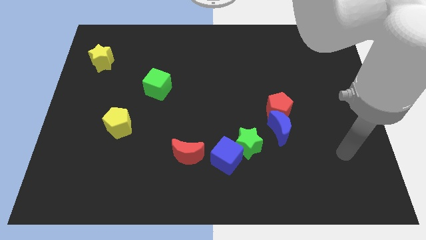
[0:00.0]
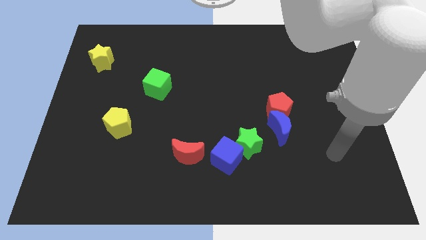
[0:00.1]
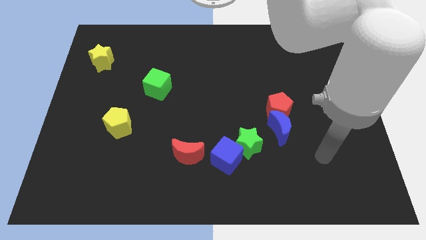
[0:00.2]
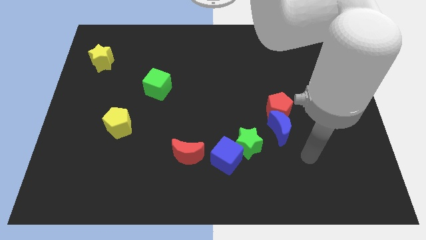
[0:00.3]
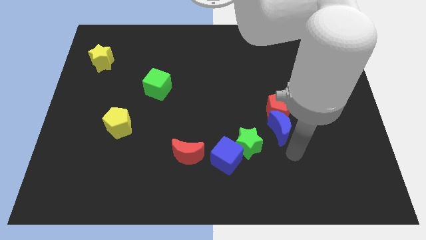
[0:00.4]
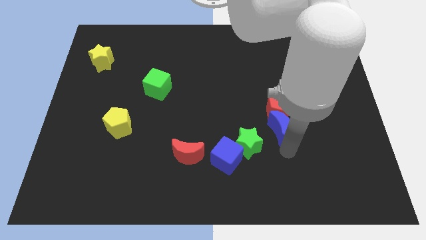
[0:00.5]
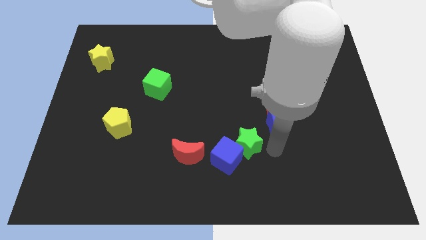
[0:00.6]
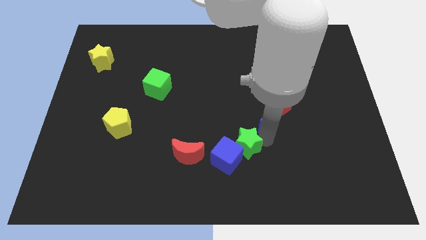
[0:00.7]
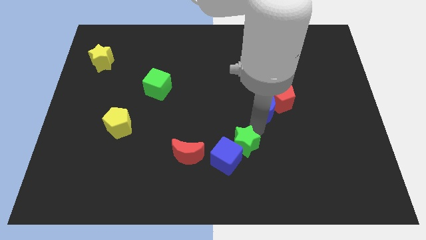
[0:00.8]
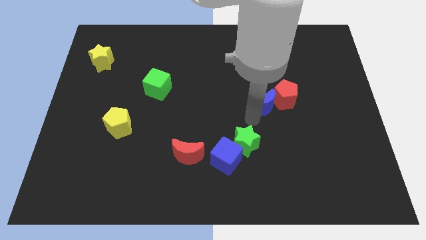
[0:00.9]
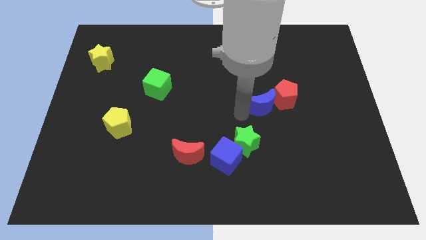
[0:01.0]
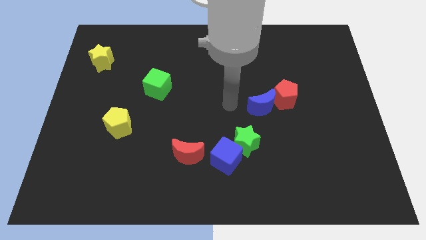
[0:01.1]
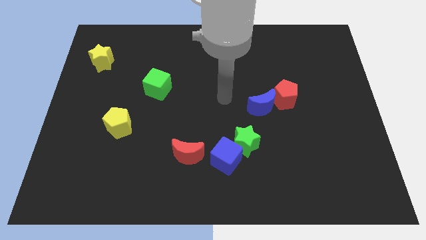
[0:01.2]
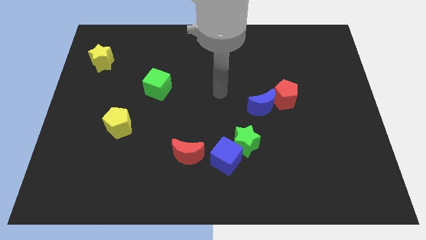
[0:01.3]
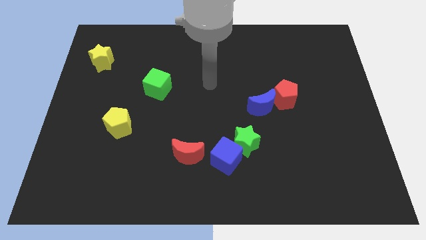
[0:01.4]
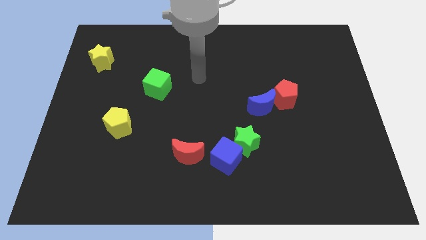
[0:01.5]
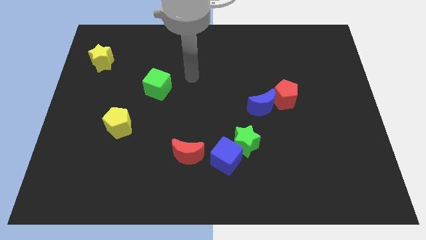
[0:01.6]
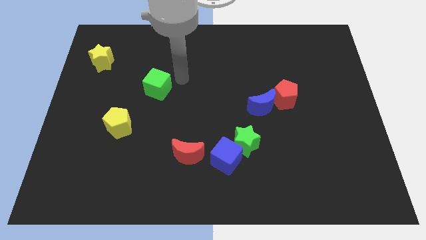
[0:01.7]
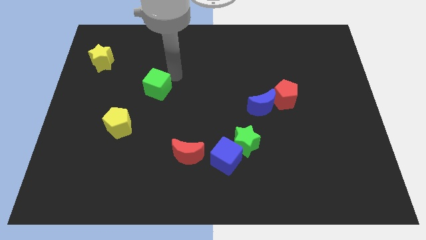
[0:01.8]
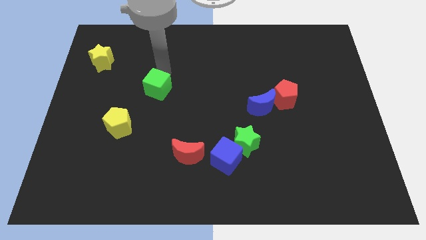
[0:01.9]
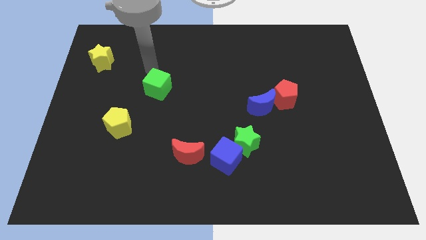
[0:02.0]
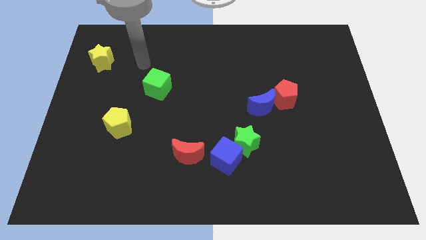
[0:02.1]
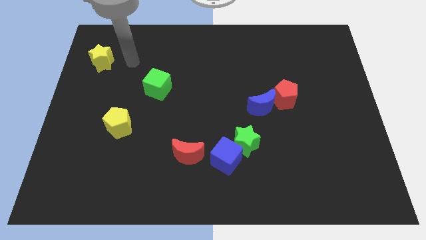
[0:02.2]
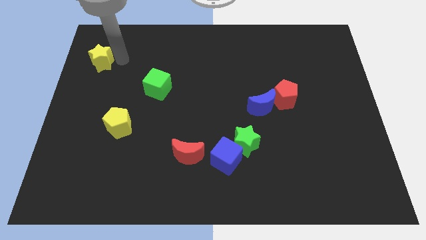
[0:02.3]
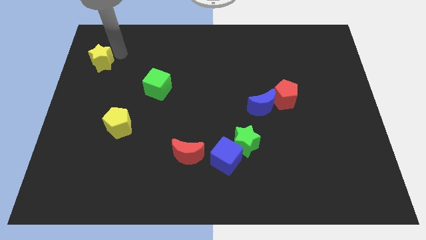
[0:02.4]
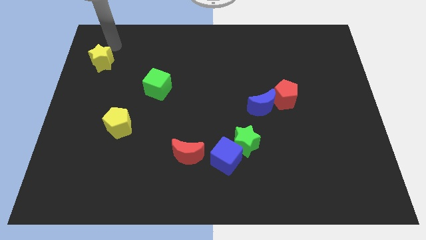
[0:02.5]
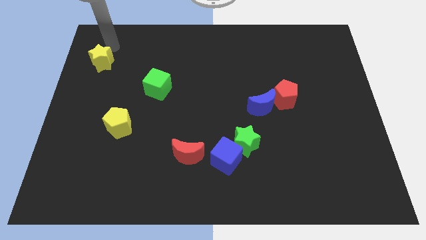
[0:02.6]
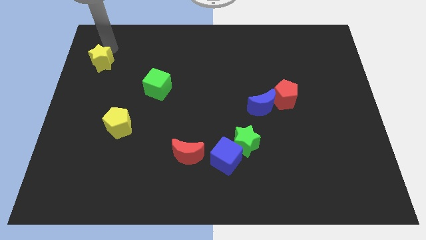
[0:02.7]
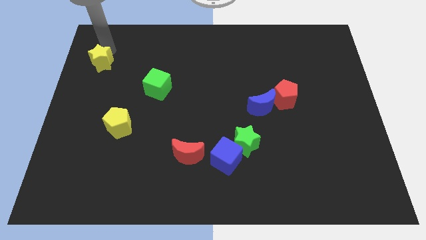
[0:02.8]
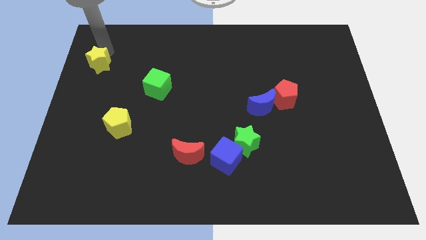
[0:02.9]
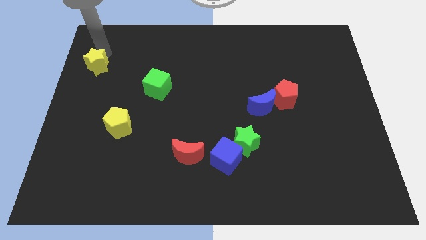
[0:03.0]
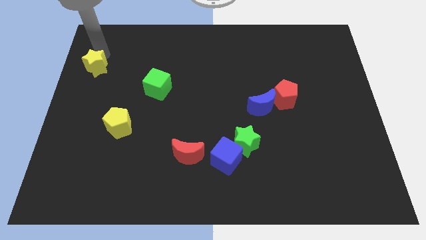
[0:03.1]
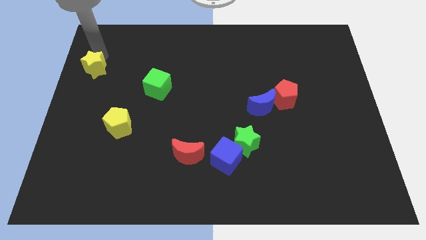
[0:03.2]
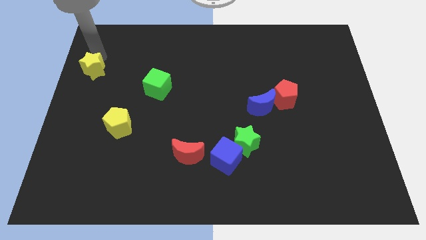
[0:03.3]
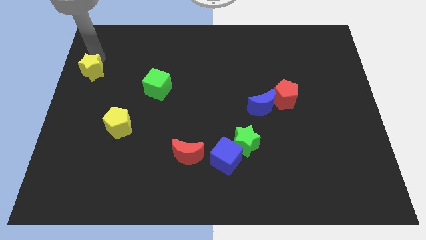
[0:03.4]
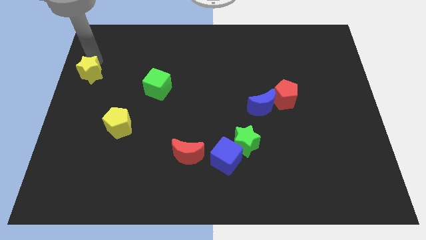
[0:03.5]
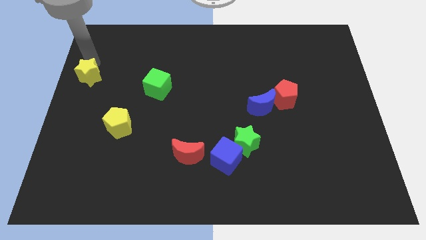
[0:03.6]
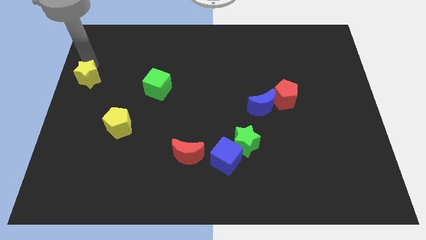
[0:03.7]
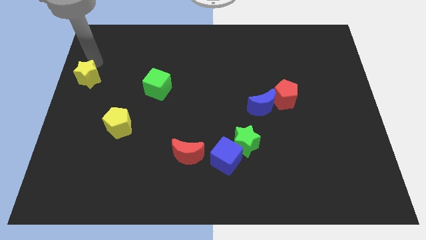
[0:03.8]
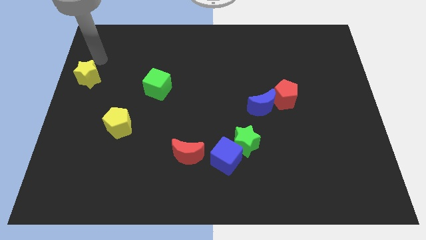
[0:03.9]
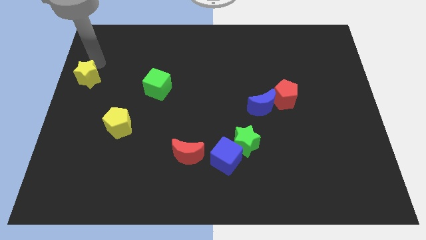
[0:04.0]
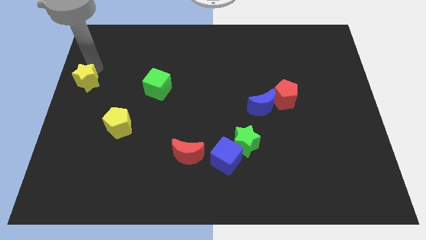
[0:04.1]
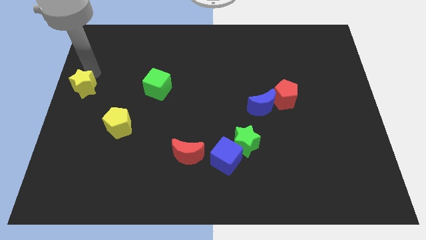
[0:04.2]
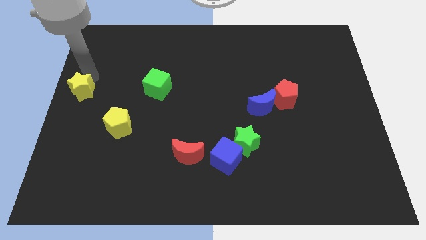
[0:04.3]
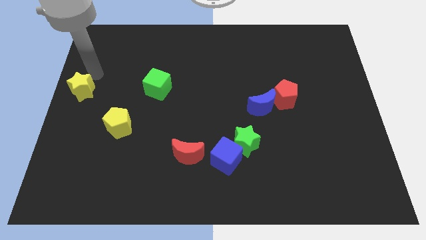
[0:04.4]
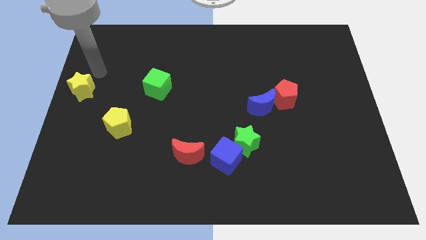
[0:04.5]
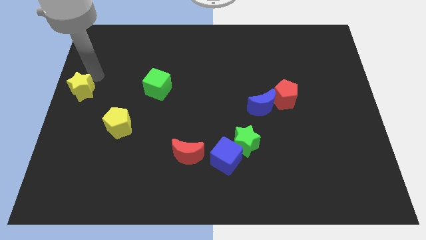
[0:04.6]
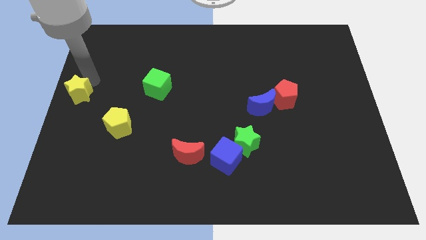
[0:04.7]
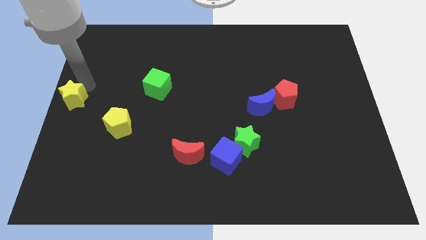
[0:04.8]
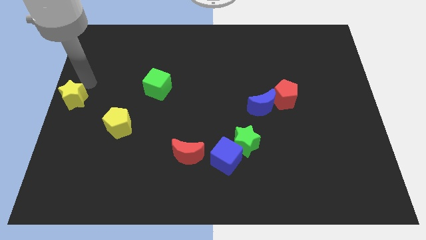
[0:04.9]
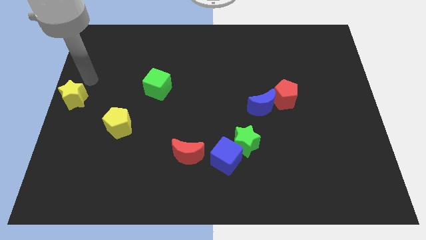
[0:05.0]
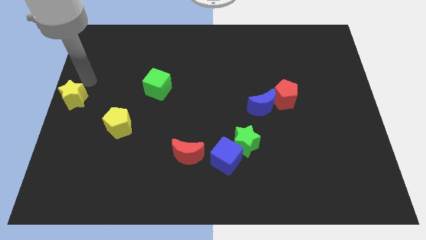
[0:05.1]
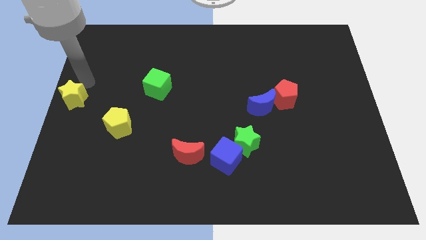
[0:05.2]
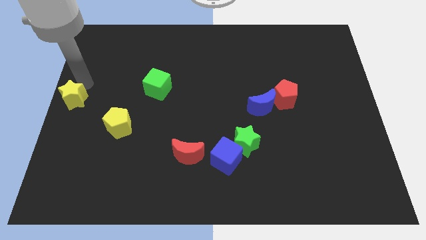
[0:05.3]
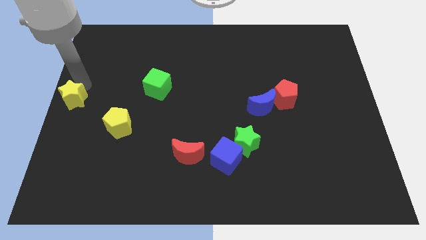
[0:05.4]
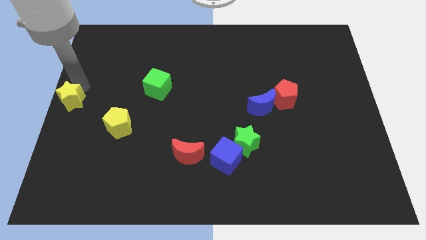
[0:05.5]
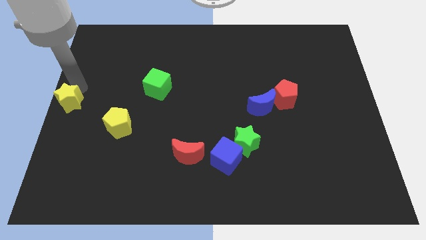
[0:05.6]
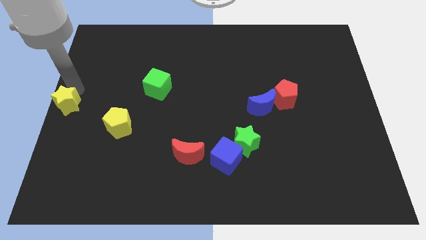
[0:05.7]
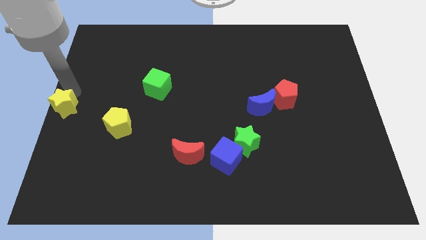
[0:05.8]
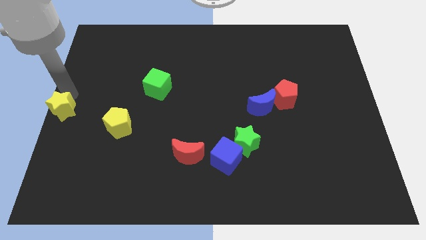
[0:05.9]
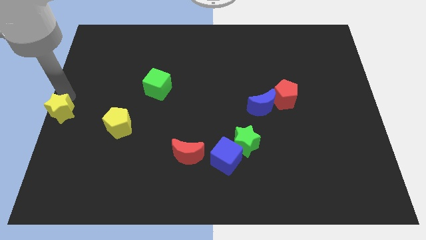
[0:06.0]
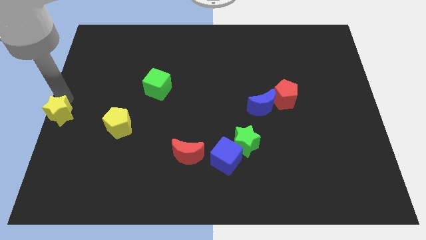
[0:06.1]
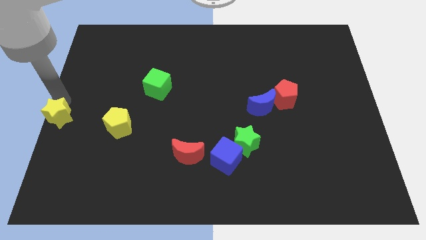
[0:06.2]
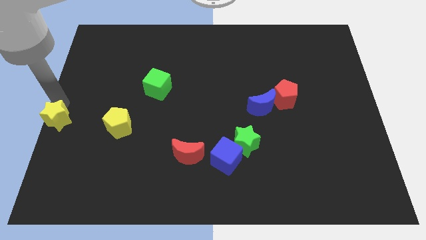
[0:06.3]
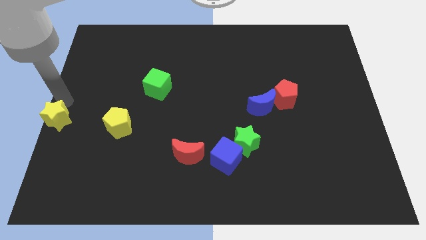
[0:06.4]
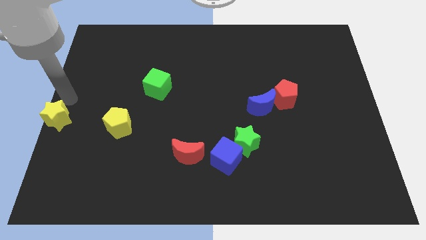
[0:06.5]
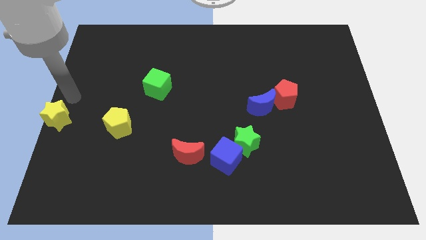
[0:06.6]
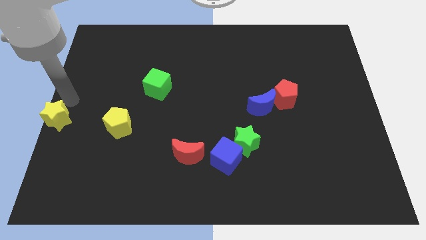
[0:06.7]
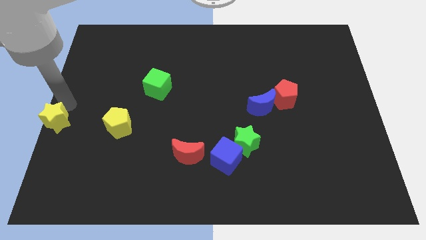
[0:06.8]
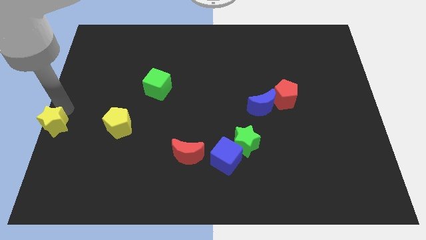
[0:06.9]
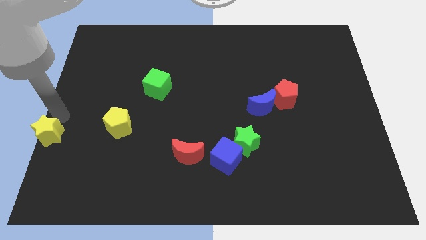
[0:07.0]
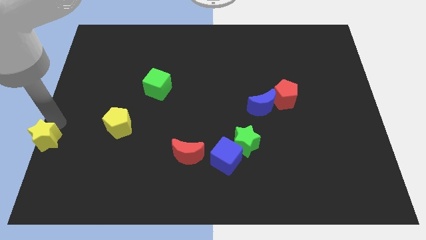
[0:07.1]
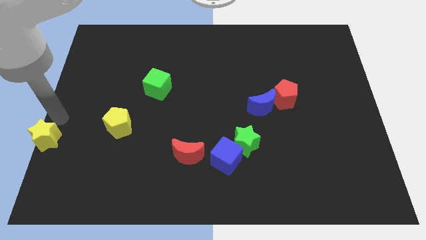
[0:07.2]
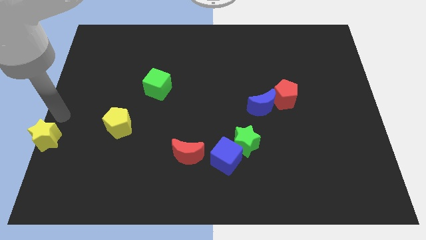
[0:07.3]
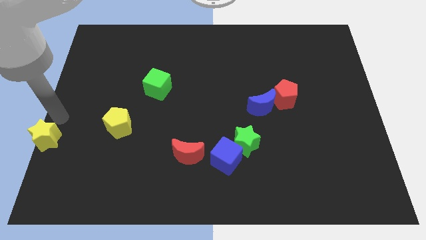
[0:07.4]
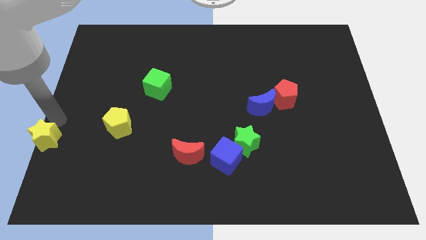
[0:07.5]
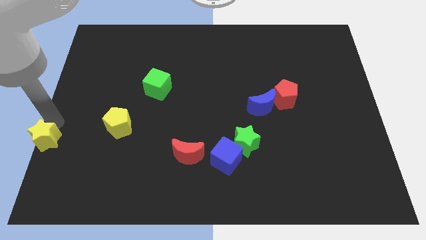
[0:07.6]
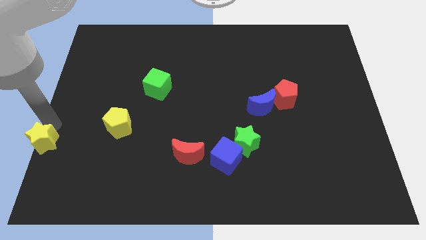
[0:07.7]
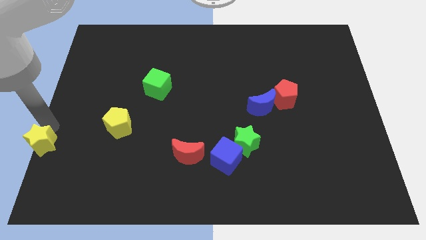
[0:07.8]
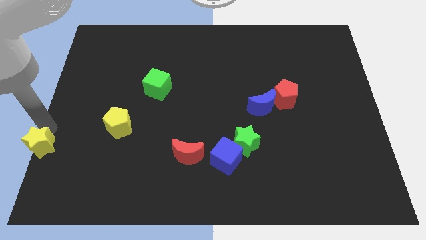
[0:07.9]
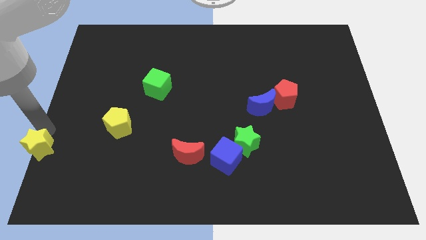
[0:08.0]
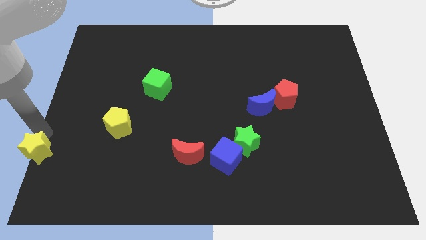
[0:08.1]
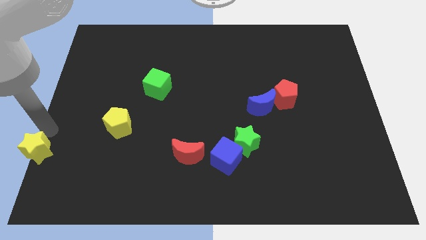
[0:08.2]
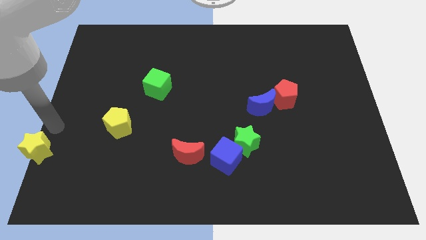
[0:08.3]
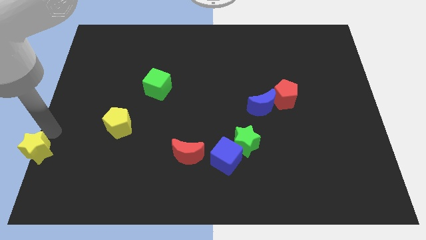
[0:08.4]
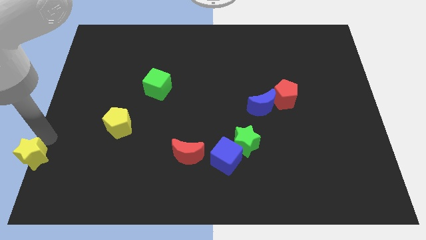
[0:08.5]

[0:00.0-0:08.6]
move the yellow star to the bottom left
